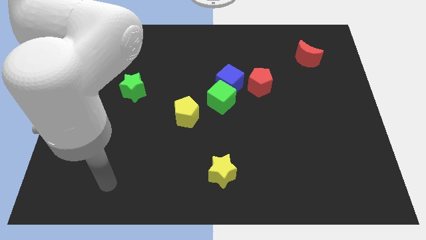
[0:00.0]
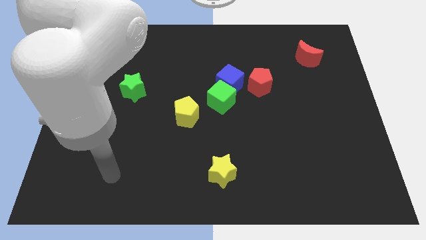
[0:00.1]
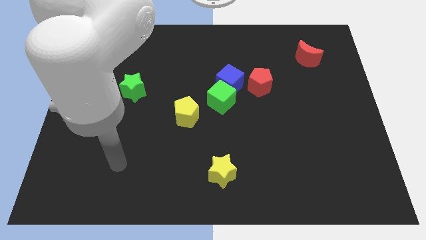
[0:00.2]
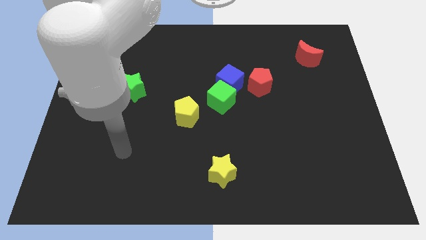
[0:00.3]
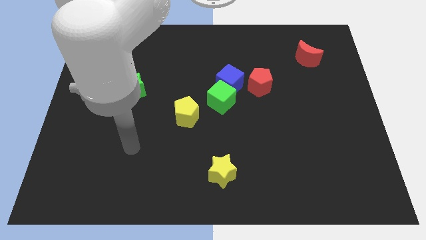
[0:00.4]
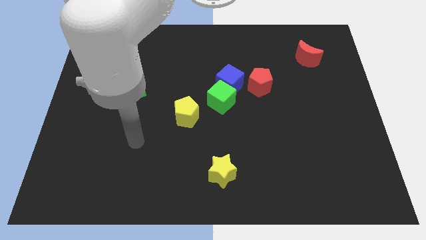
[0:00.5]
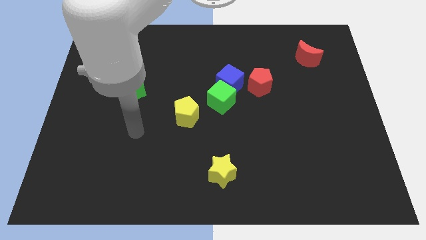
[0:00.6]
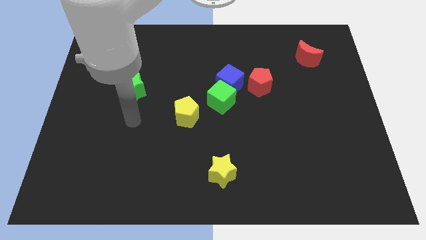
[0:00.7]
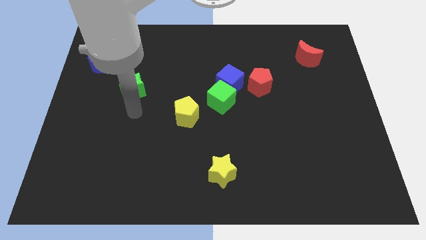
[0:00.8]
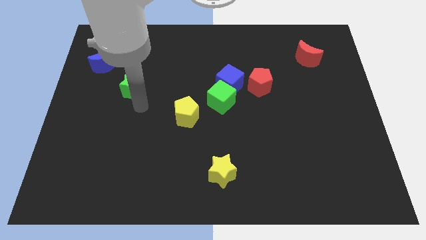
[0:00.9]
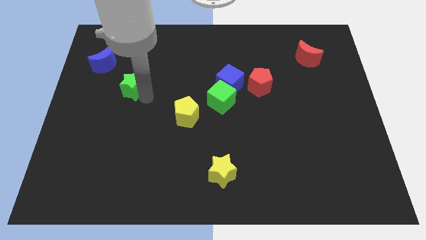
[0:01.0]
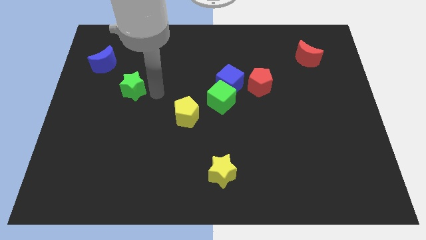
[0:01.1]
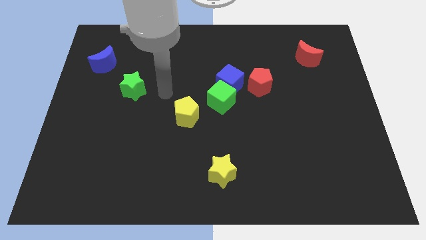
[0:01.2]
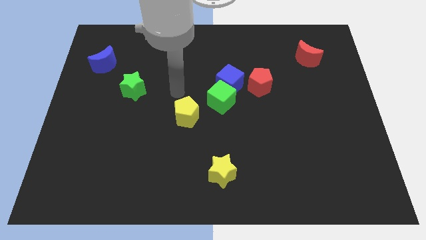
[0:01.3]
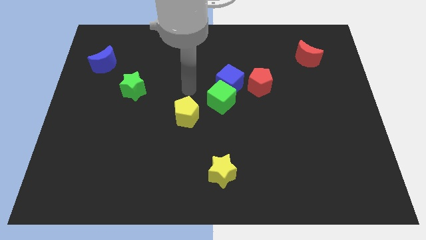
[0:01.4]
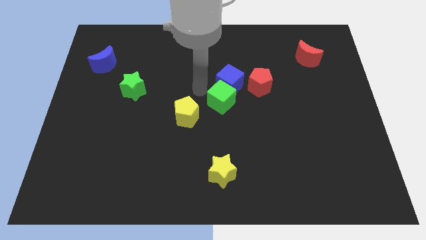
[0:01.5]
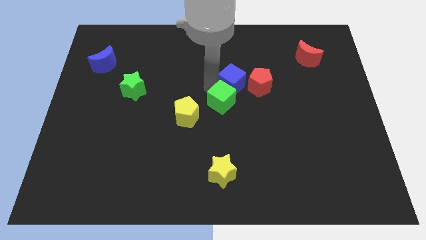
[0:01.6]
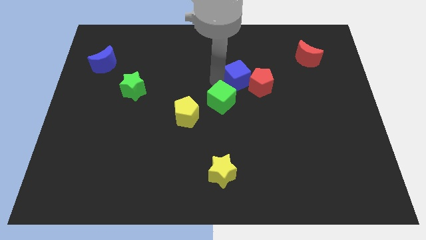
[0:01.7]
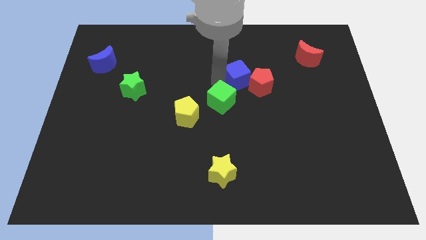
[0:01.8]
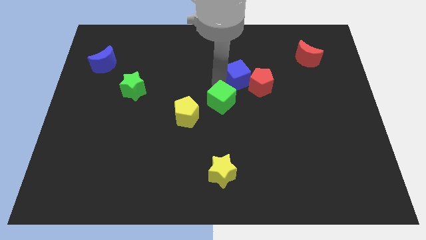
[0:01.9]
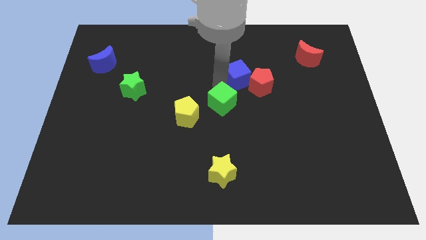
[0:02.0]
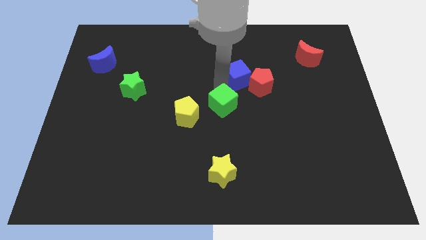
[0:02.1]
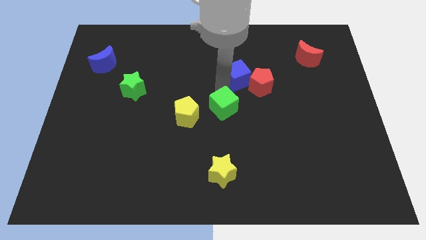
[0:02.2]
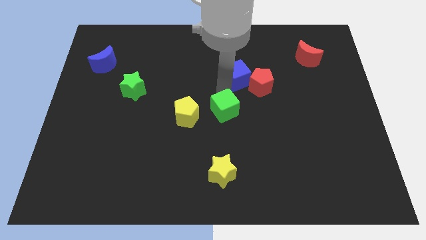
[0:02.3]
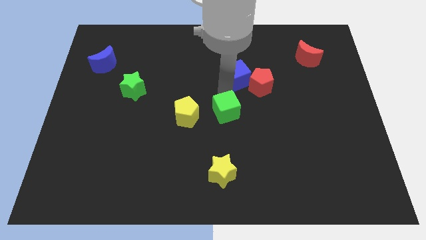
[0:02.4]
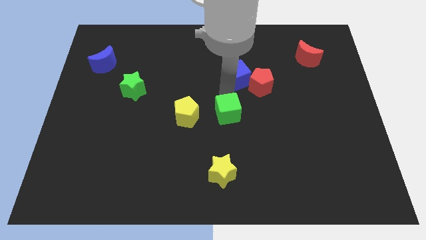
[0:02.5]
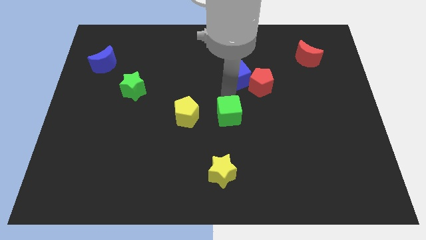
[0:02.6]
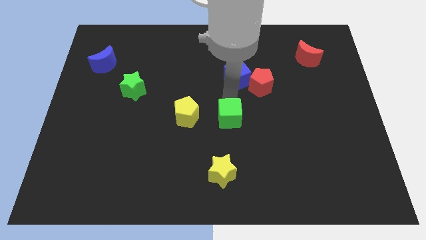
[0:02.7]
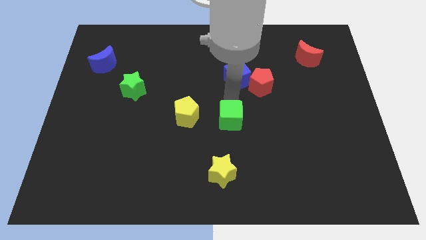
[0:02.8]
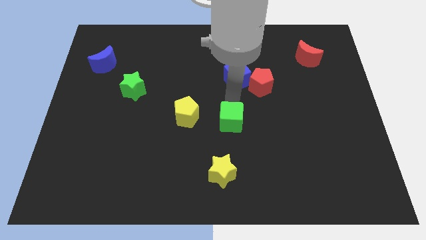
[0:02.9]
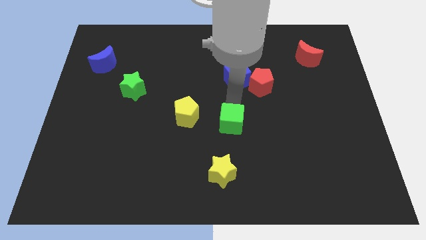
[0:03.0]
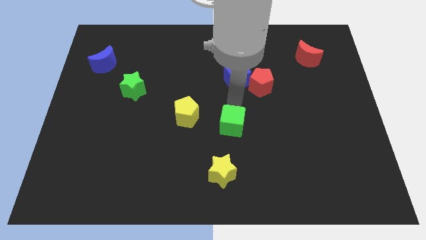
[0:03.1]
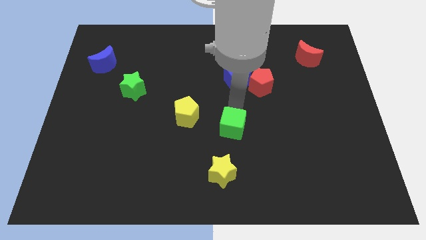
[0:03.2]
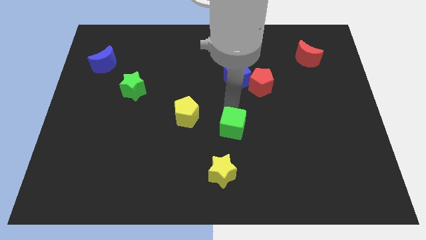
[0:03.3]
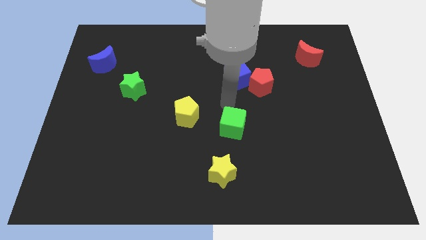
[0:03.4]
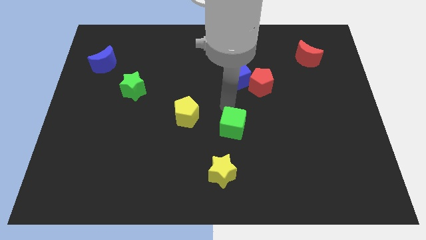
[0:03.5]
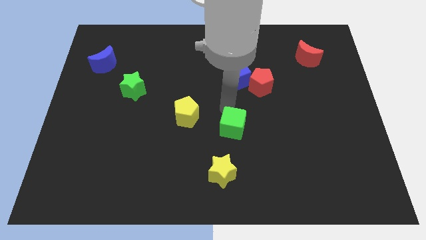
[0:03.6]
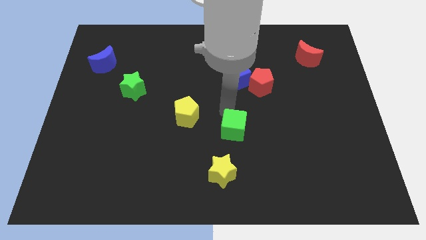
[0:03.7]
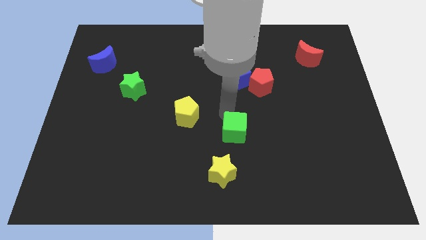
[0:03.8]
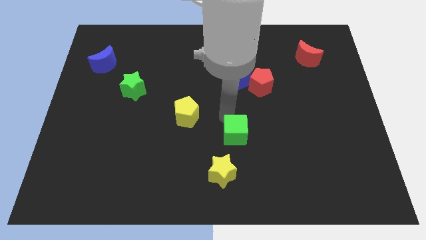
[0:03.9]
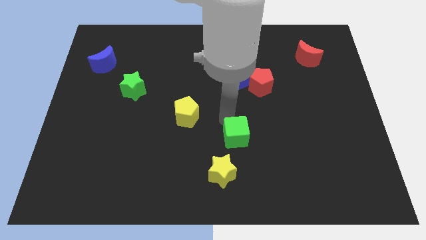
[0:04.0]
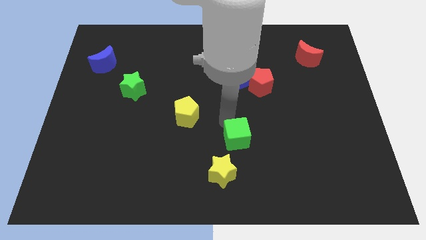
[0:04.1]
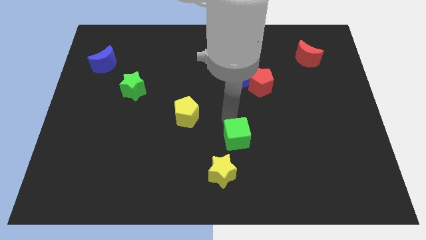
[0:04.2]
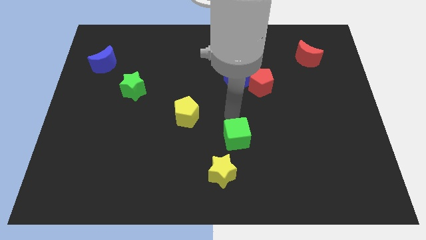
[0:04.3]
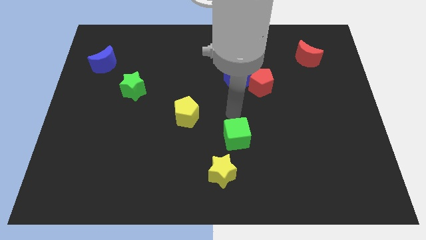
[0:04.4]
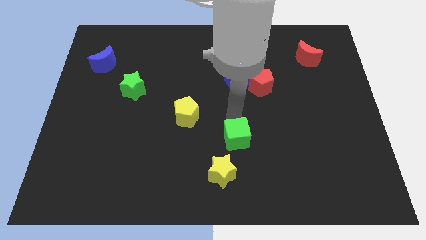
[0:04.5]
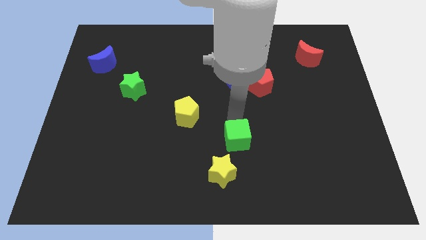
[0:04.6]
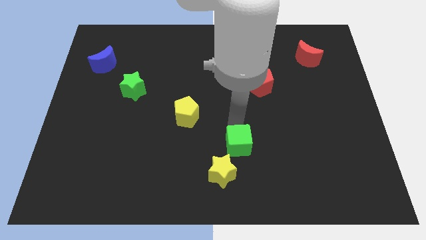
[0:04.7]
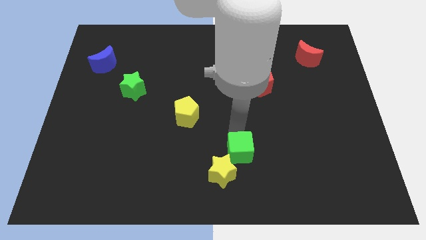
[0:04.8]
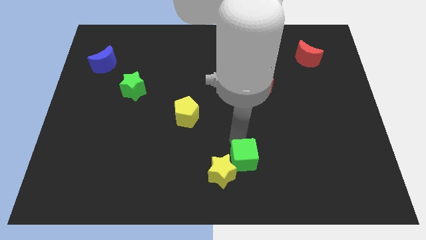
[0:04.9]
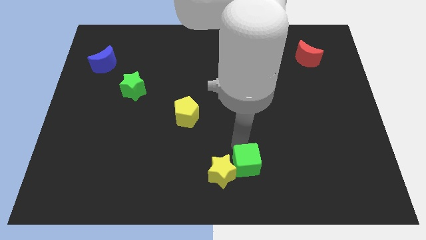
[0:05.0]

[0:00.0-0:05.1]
move the green cube to the bottom

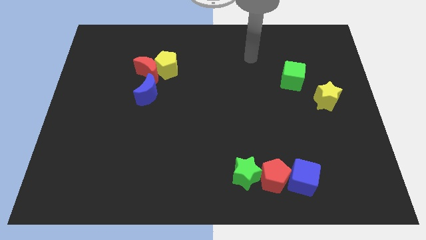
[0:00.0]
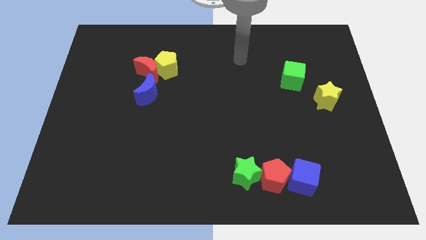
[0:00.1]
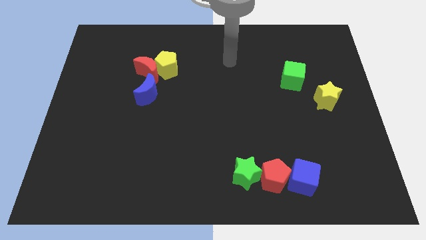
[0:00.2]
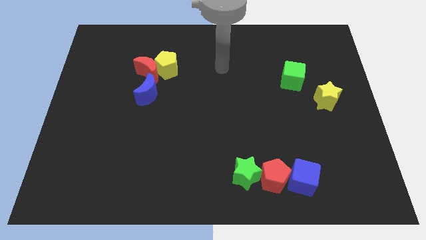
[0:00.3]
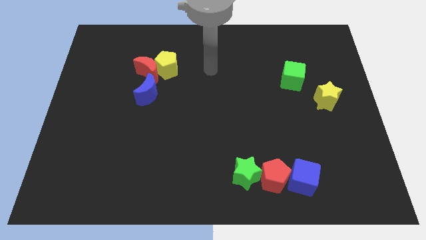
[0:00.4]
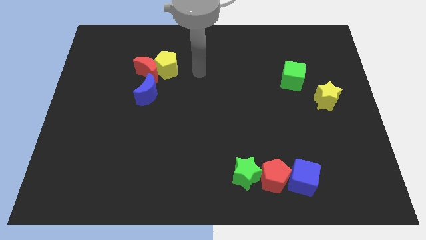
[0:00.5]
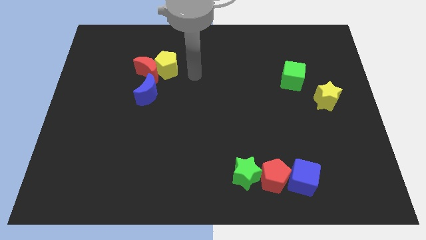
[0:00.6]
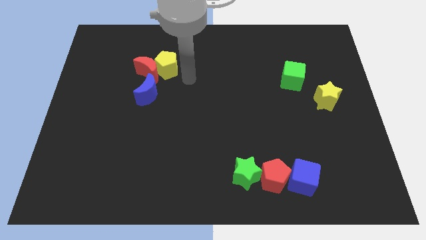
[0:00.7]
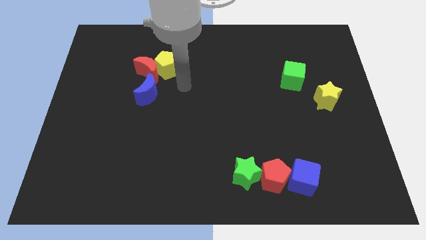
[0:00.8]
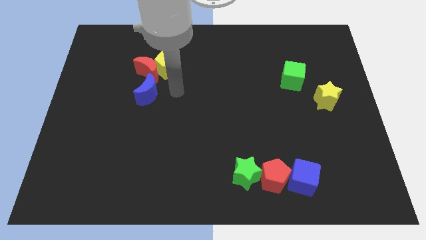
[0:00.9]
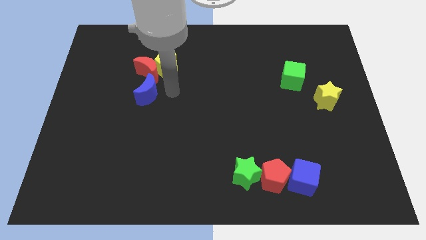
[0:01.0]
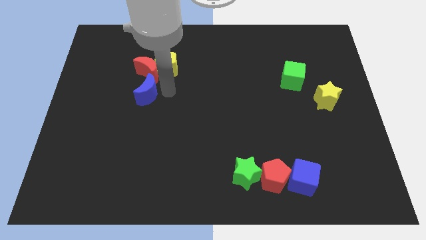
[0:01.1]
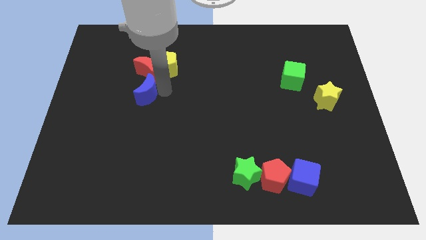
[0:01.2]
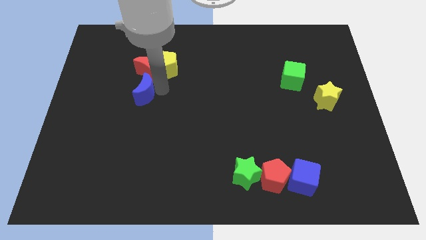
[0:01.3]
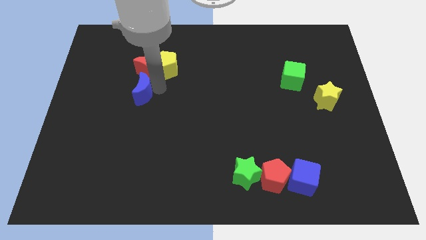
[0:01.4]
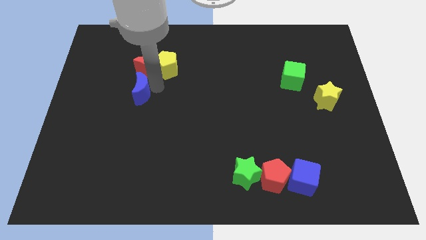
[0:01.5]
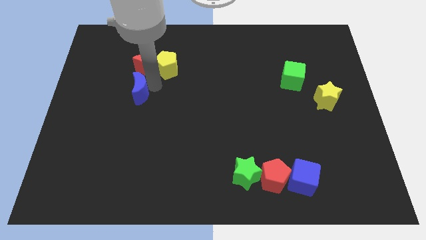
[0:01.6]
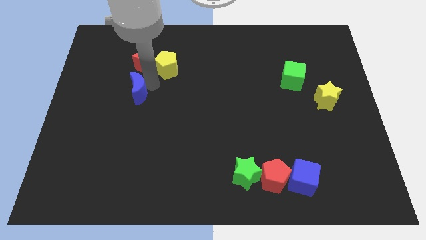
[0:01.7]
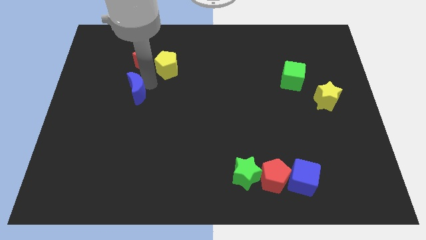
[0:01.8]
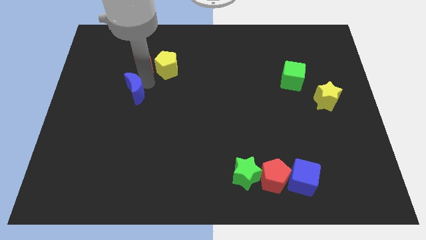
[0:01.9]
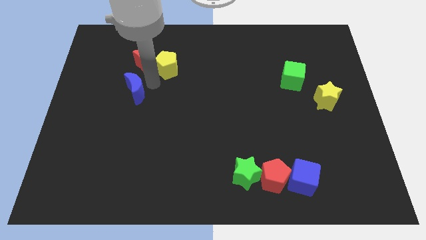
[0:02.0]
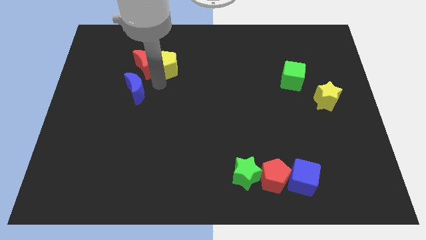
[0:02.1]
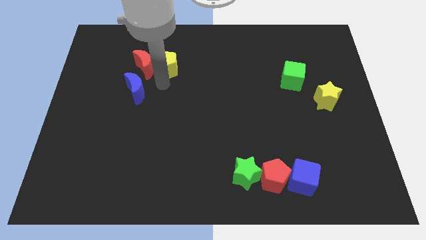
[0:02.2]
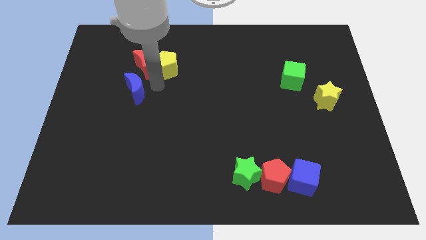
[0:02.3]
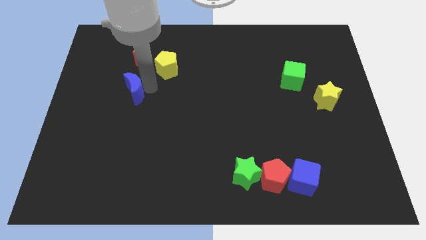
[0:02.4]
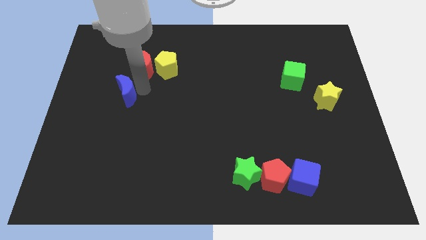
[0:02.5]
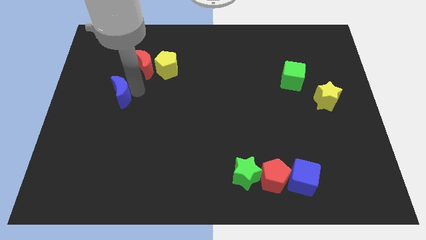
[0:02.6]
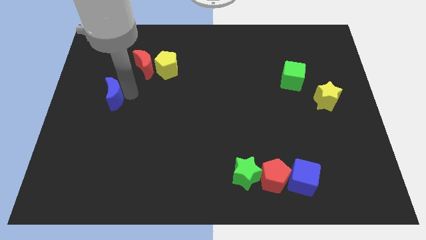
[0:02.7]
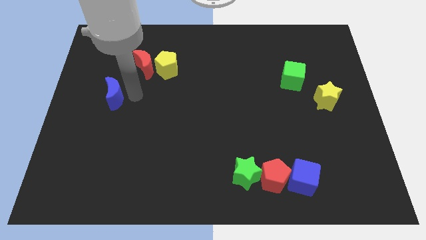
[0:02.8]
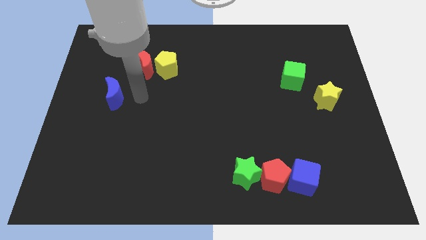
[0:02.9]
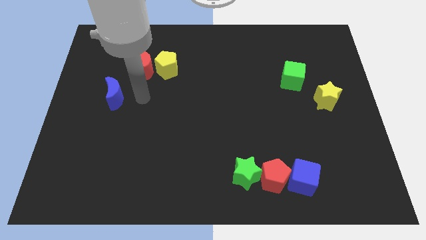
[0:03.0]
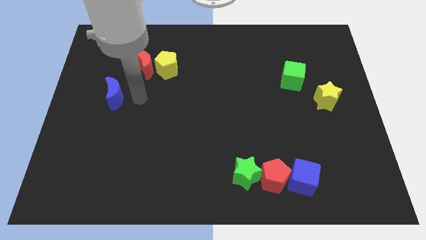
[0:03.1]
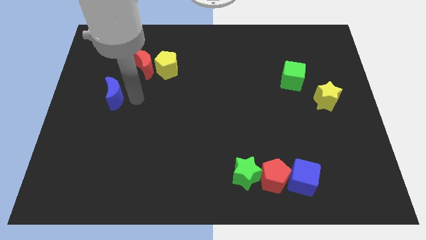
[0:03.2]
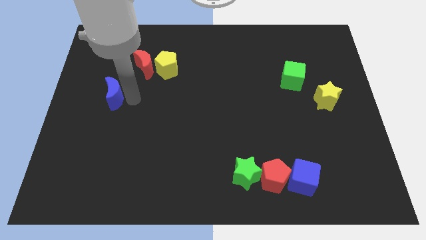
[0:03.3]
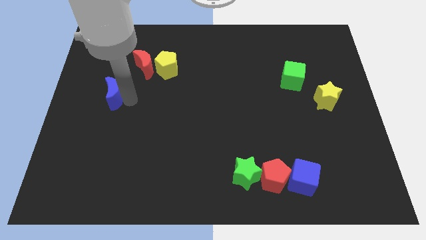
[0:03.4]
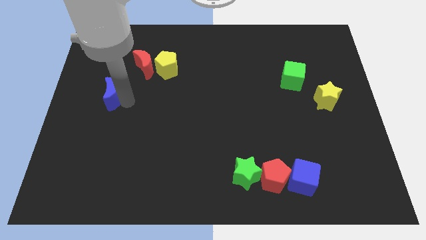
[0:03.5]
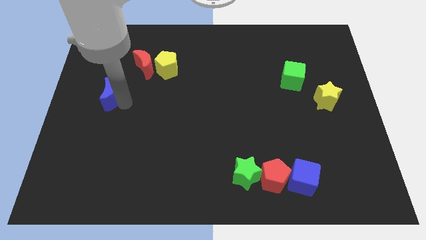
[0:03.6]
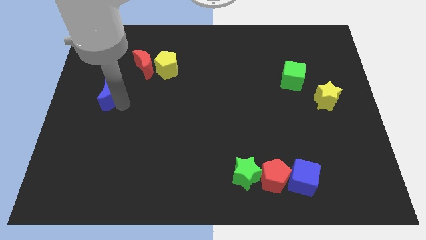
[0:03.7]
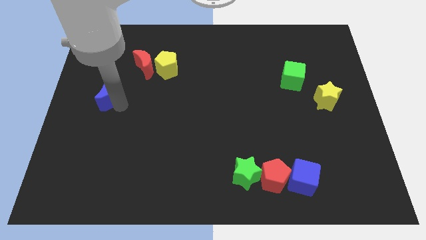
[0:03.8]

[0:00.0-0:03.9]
put the blue moon to the center left
